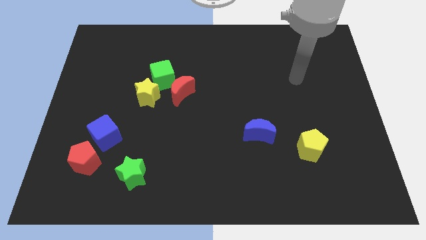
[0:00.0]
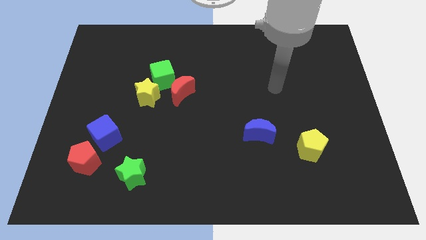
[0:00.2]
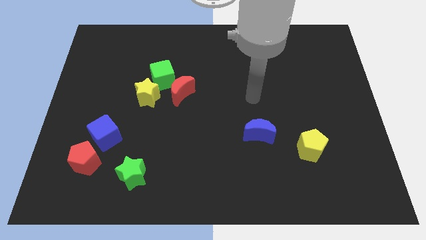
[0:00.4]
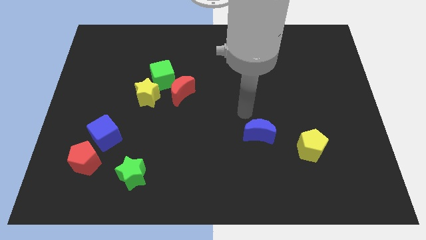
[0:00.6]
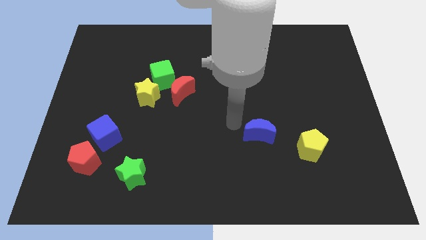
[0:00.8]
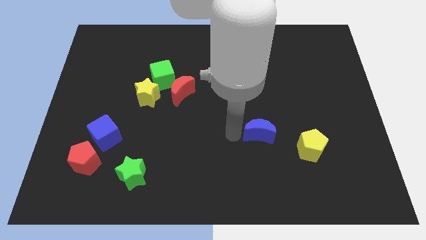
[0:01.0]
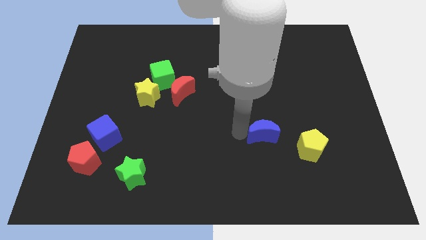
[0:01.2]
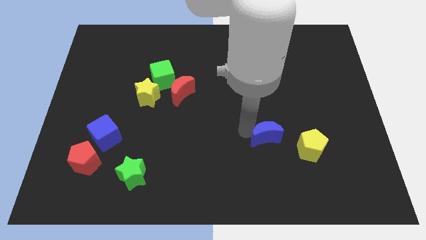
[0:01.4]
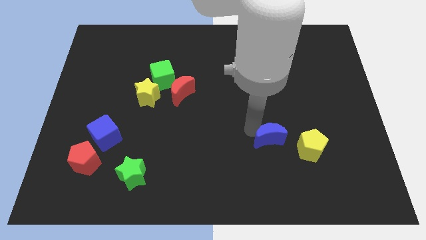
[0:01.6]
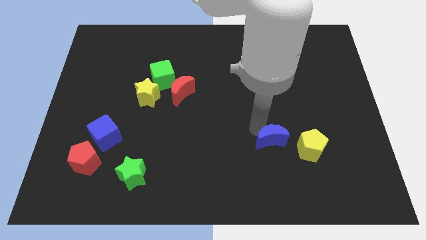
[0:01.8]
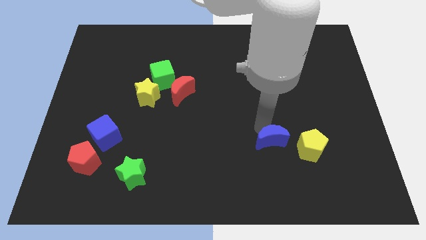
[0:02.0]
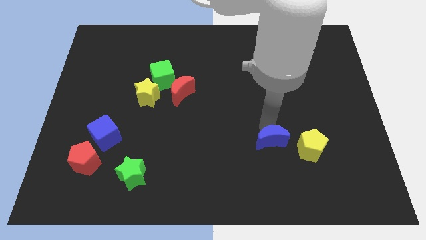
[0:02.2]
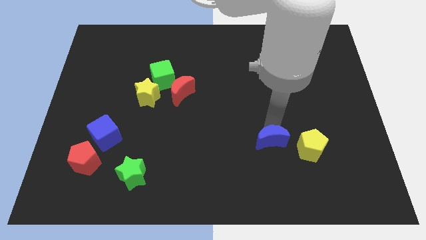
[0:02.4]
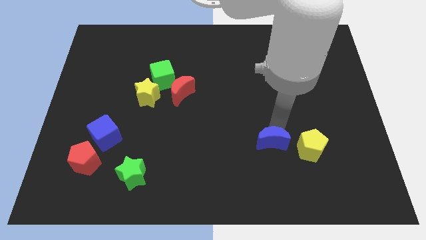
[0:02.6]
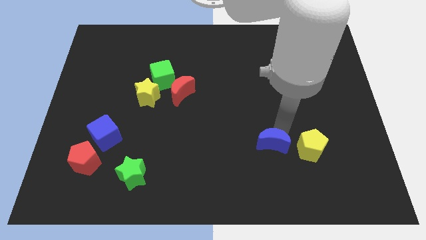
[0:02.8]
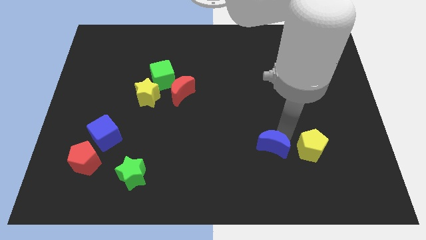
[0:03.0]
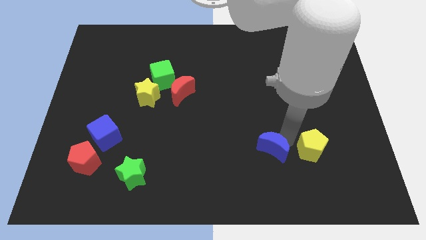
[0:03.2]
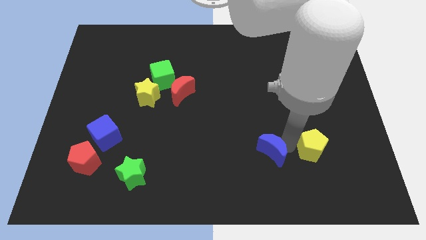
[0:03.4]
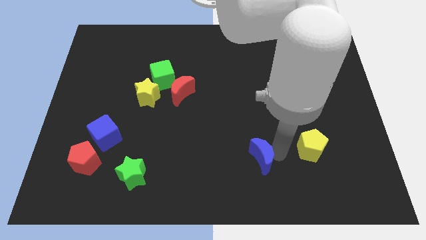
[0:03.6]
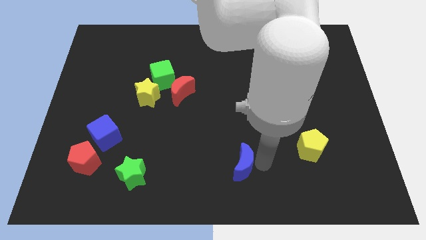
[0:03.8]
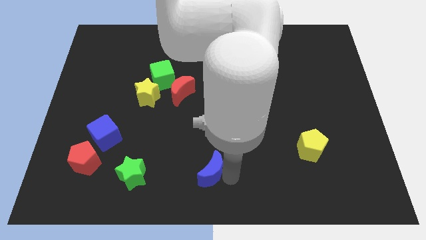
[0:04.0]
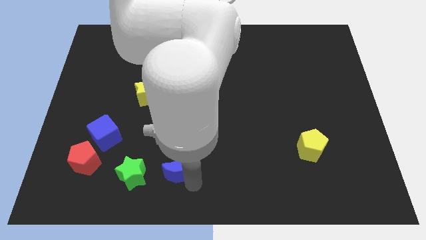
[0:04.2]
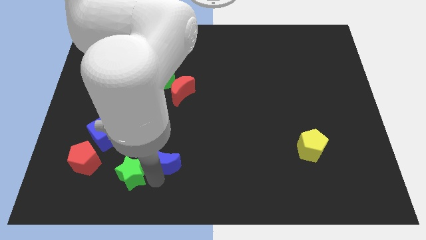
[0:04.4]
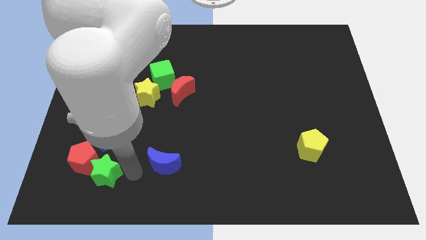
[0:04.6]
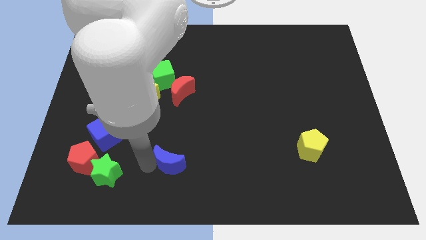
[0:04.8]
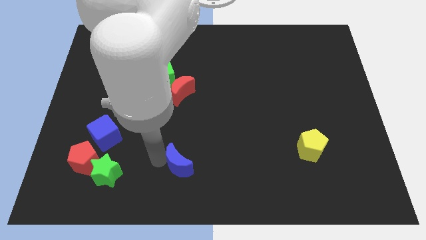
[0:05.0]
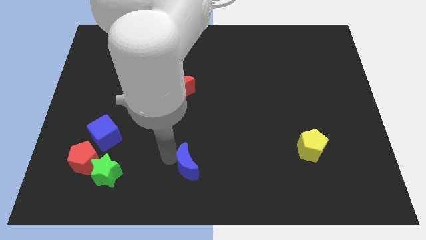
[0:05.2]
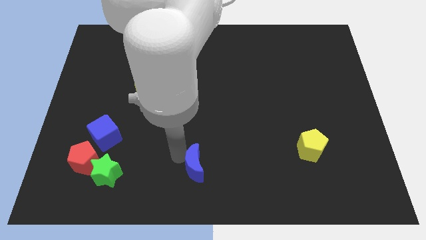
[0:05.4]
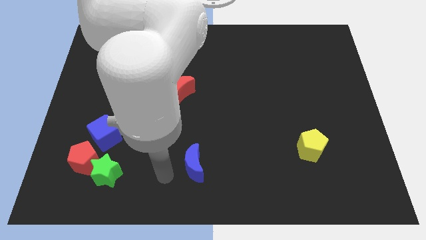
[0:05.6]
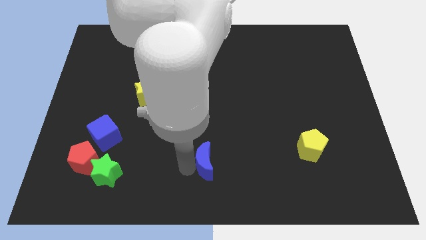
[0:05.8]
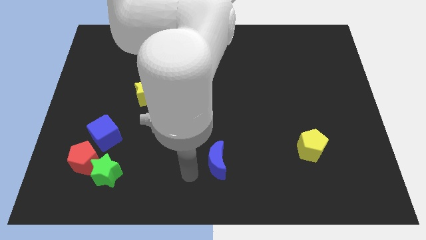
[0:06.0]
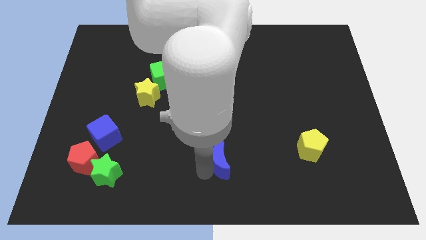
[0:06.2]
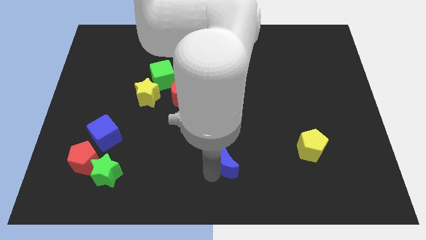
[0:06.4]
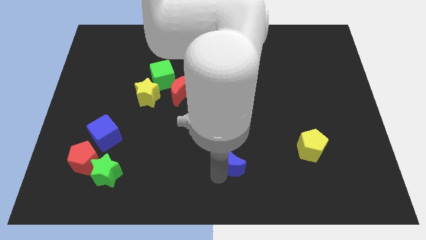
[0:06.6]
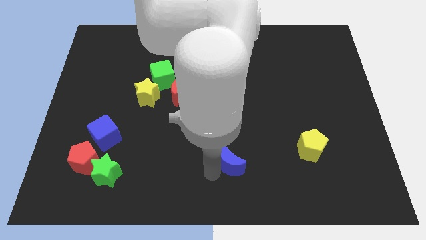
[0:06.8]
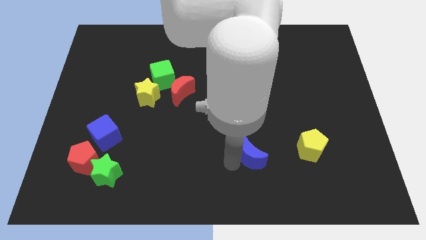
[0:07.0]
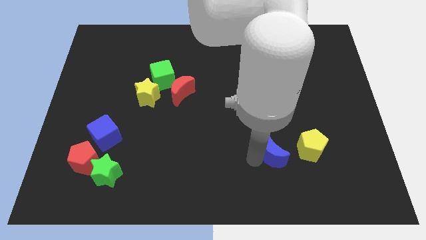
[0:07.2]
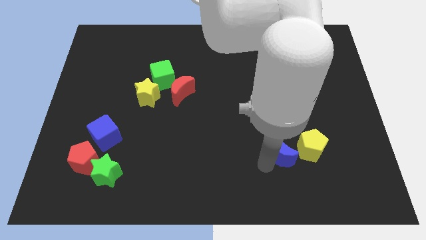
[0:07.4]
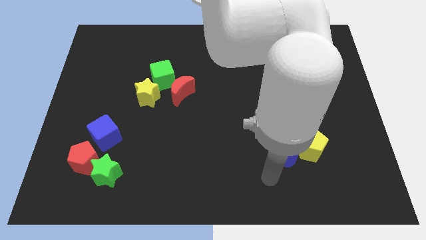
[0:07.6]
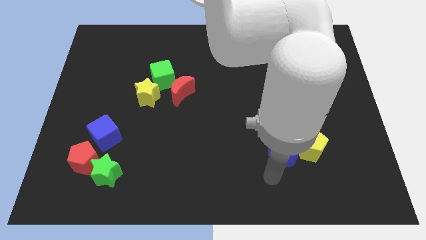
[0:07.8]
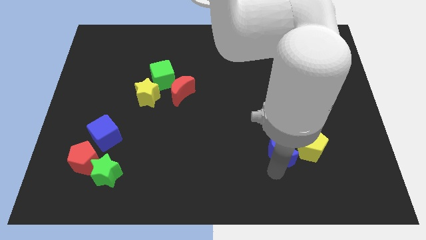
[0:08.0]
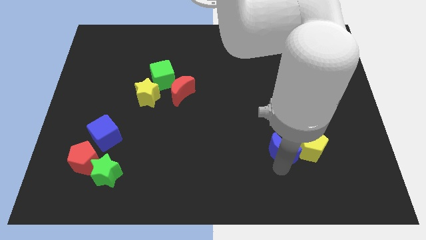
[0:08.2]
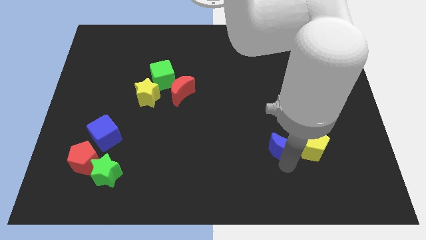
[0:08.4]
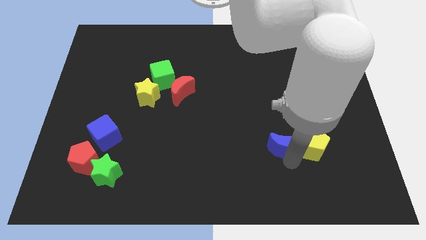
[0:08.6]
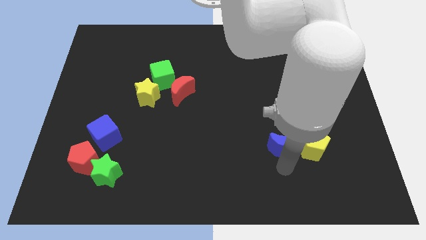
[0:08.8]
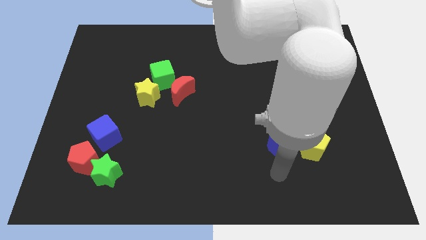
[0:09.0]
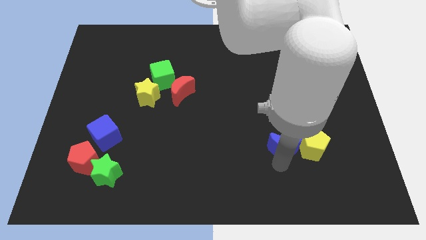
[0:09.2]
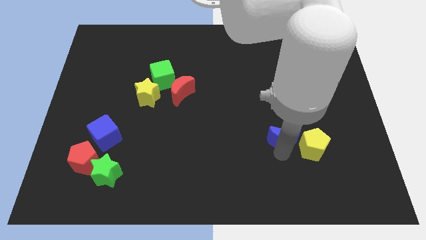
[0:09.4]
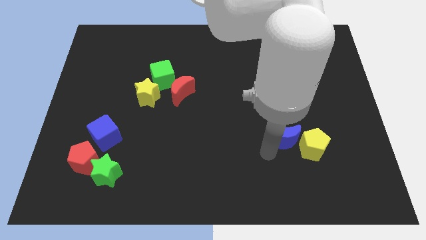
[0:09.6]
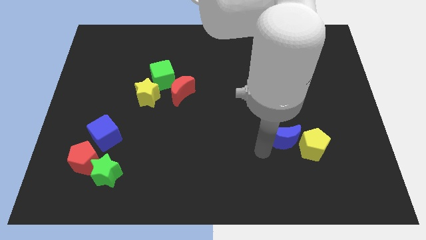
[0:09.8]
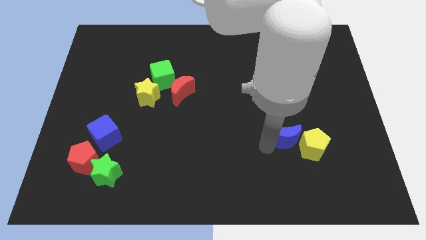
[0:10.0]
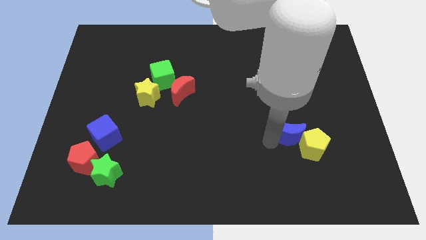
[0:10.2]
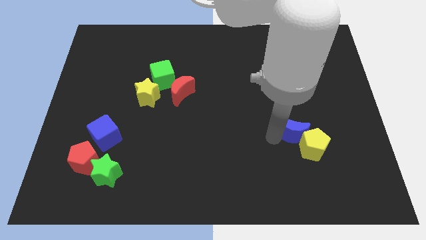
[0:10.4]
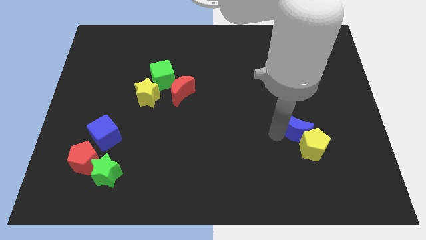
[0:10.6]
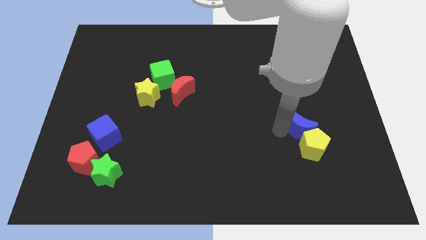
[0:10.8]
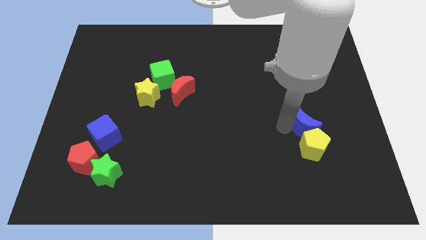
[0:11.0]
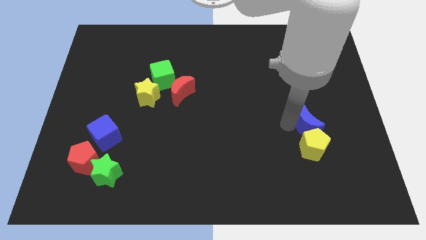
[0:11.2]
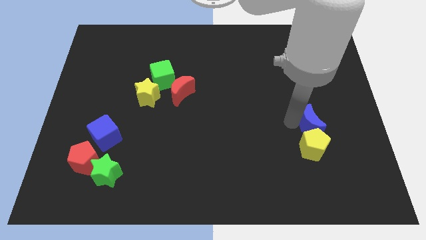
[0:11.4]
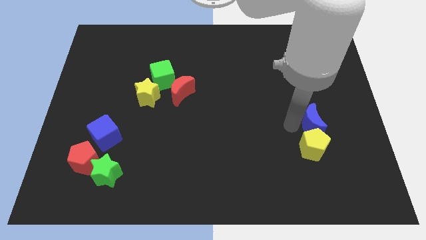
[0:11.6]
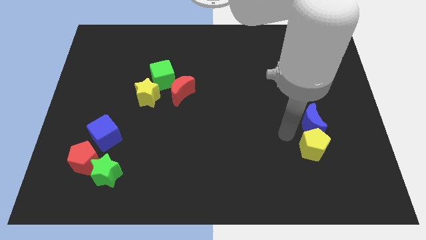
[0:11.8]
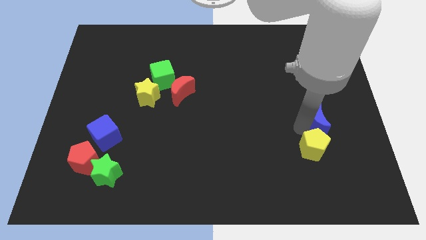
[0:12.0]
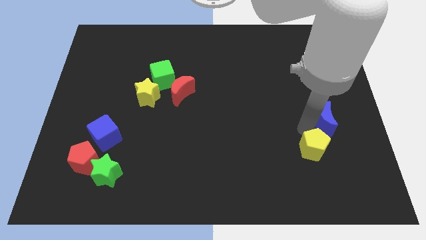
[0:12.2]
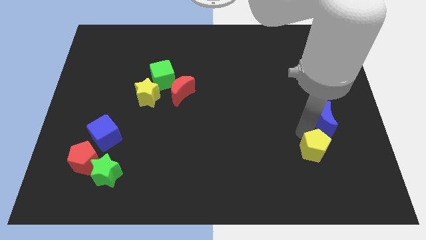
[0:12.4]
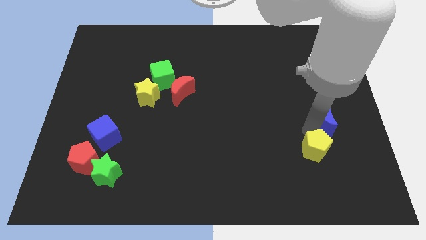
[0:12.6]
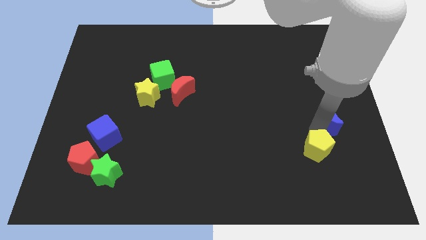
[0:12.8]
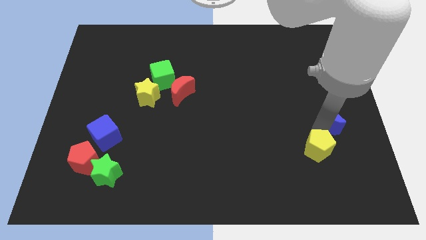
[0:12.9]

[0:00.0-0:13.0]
put the blue moon to the right side of the board

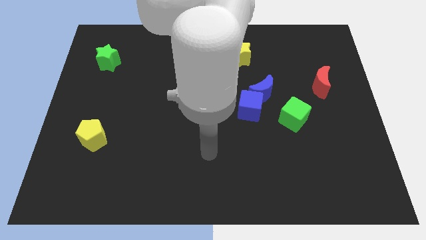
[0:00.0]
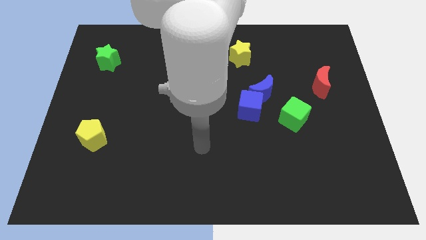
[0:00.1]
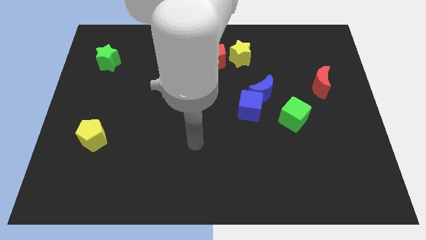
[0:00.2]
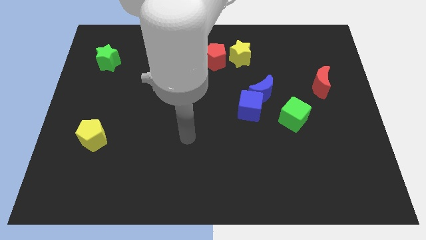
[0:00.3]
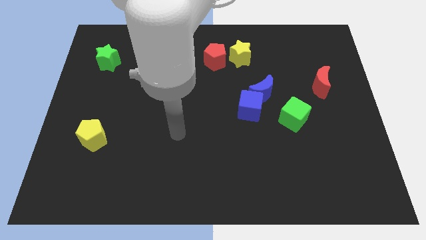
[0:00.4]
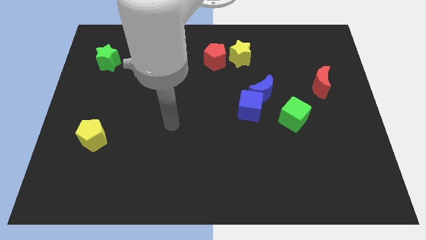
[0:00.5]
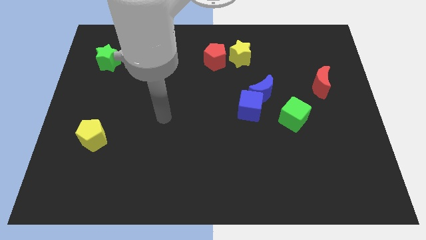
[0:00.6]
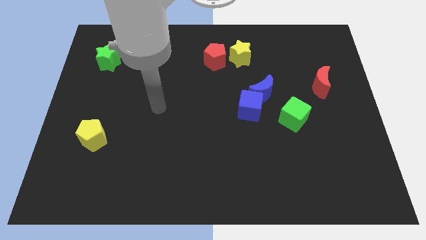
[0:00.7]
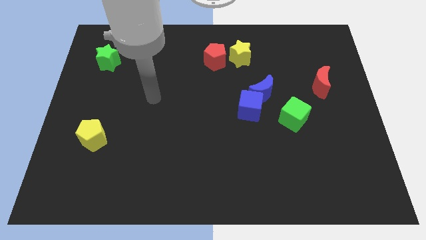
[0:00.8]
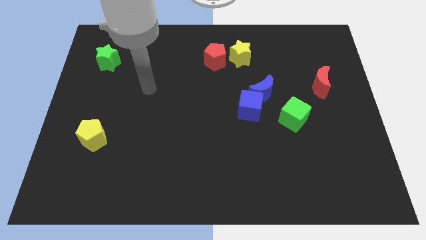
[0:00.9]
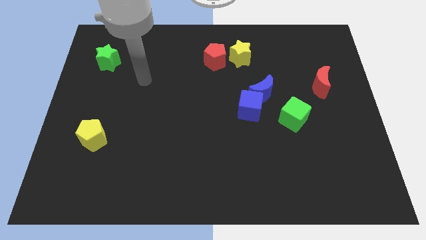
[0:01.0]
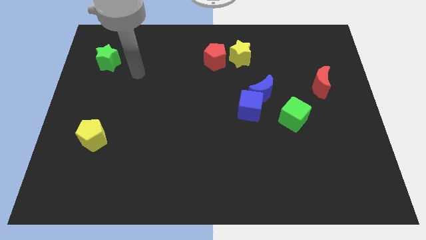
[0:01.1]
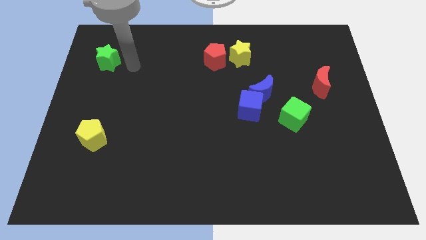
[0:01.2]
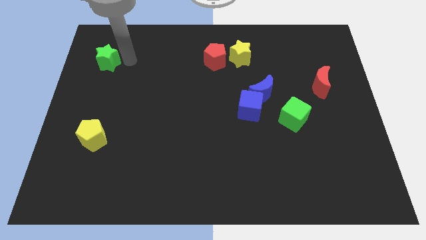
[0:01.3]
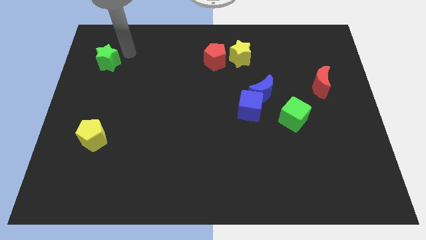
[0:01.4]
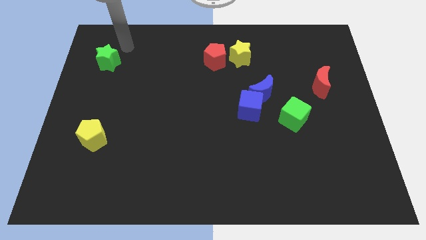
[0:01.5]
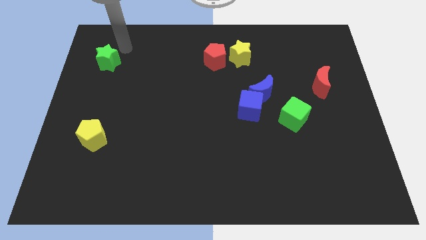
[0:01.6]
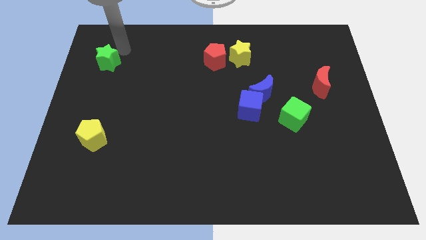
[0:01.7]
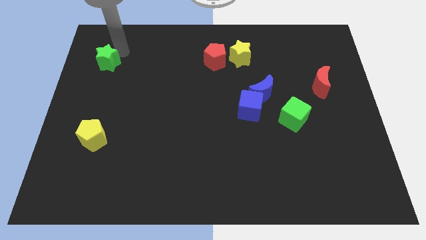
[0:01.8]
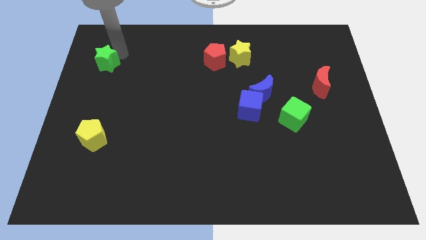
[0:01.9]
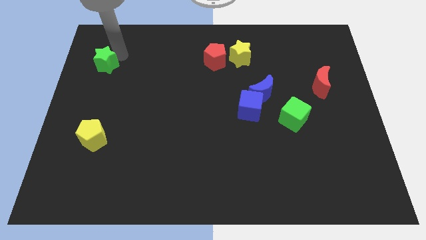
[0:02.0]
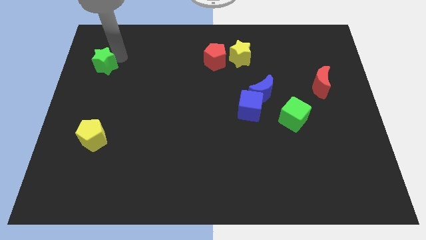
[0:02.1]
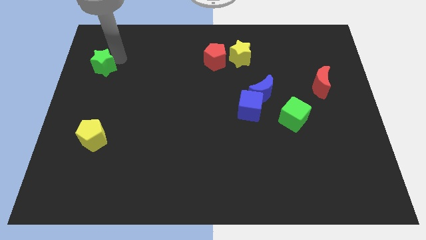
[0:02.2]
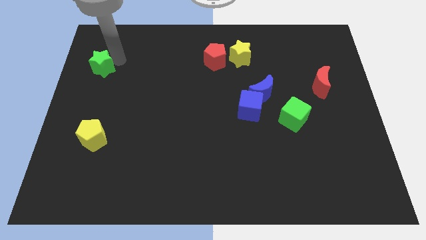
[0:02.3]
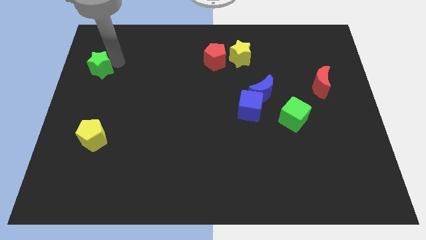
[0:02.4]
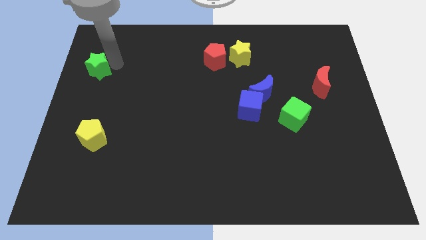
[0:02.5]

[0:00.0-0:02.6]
move the green star to the left side of the board
